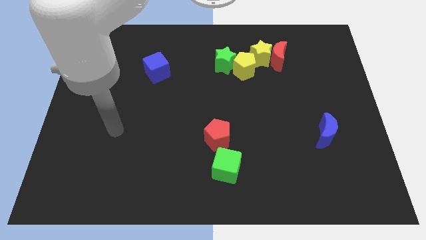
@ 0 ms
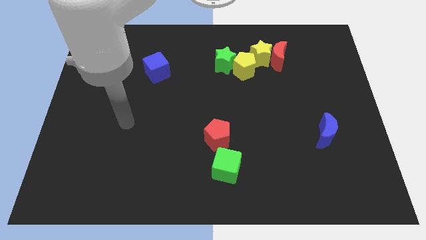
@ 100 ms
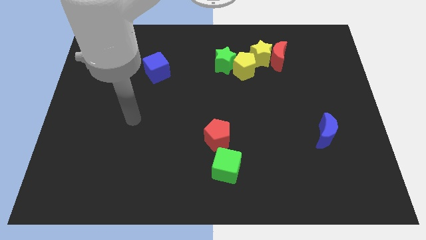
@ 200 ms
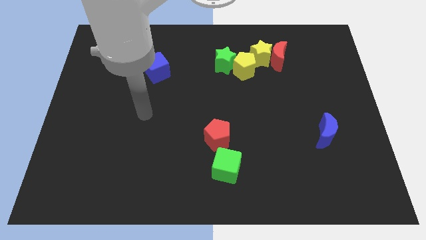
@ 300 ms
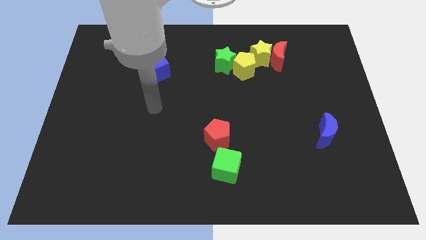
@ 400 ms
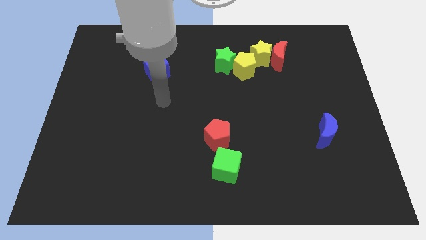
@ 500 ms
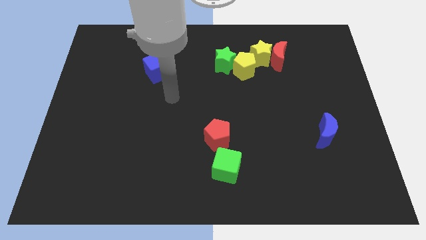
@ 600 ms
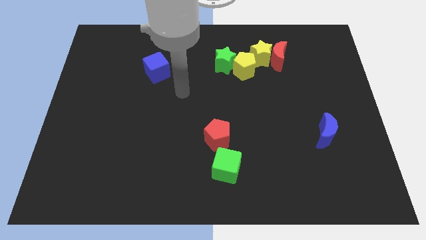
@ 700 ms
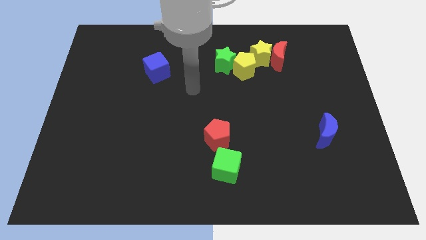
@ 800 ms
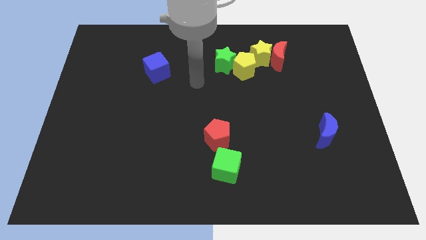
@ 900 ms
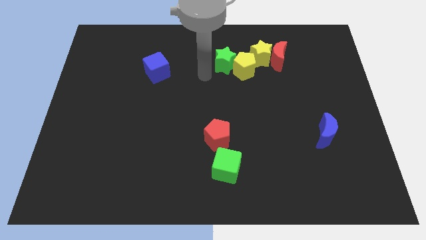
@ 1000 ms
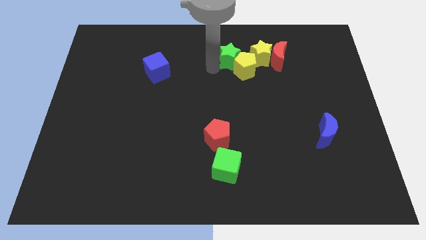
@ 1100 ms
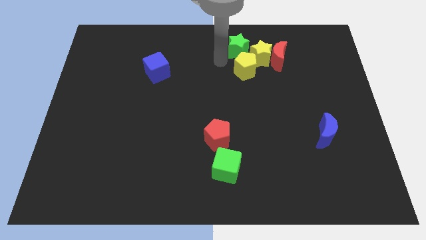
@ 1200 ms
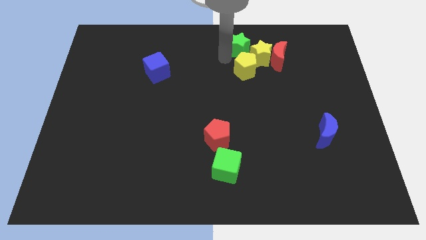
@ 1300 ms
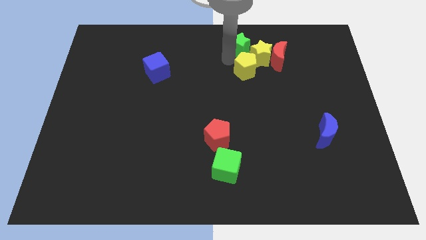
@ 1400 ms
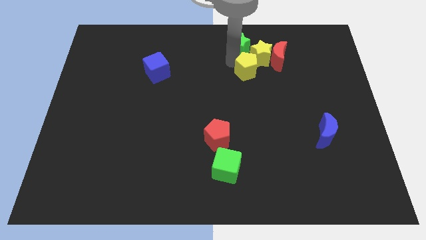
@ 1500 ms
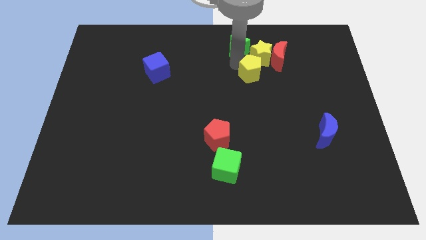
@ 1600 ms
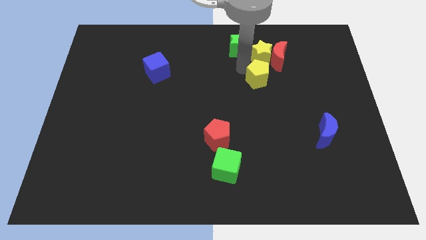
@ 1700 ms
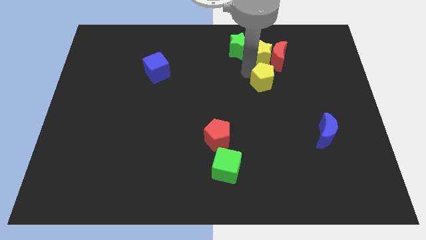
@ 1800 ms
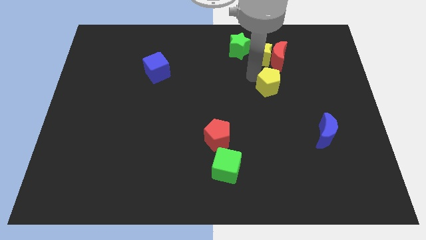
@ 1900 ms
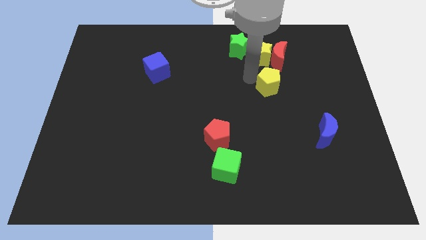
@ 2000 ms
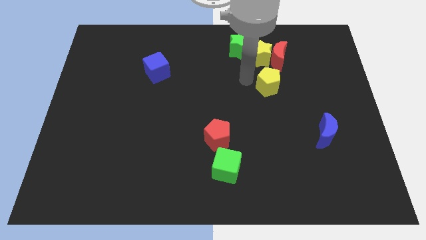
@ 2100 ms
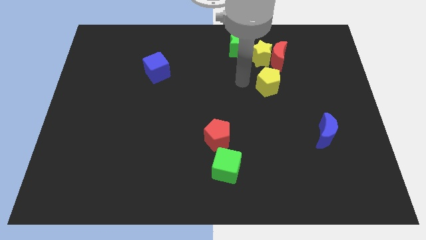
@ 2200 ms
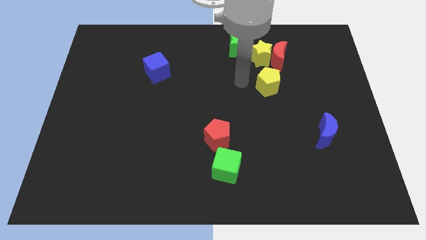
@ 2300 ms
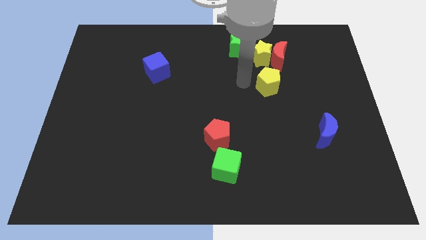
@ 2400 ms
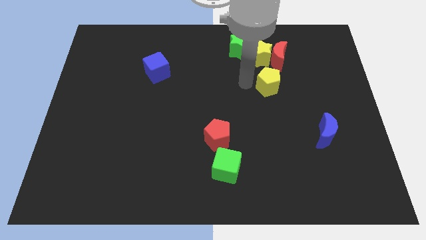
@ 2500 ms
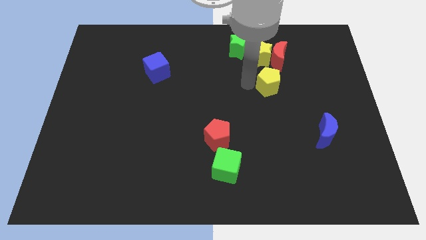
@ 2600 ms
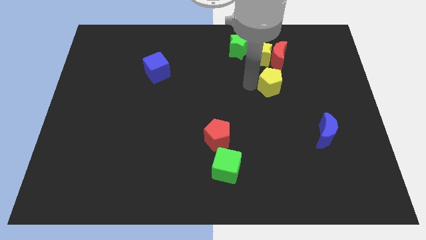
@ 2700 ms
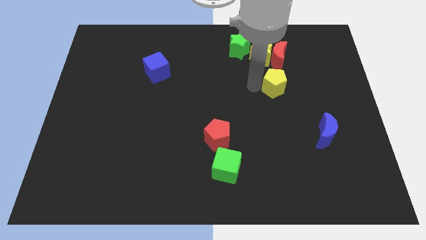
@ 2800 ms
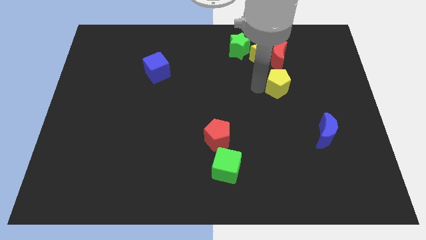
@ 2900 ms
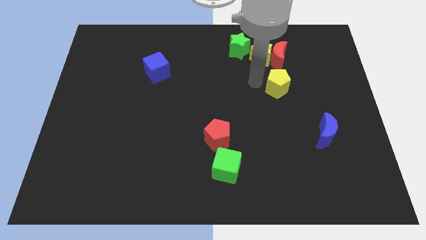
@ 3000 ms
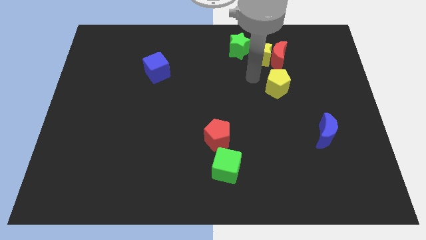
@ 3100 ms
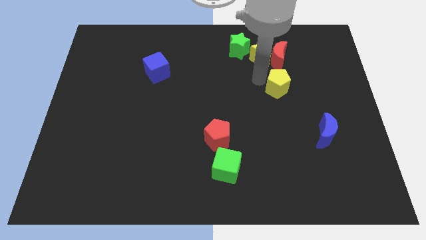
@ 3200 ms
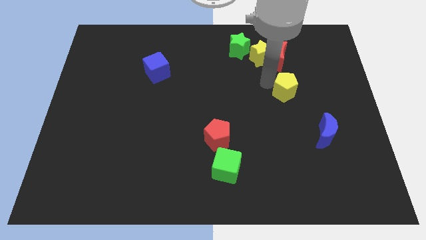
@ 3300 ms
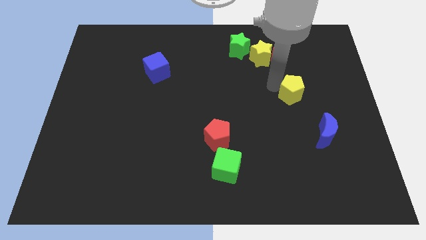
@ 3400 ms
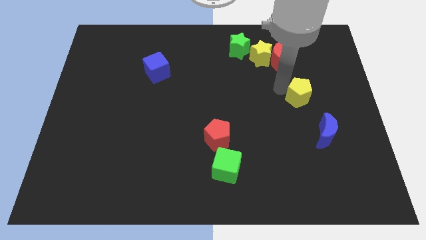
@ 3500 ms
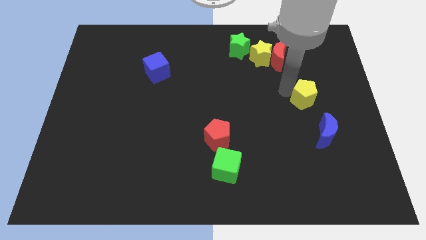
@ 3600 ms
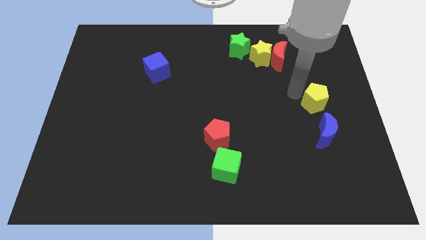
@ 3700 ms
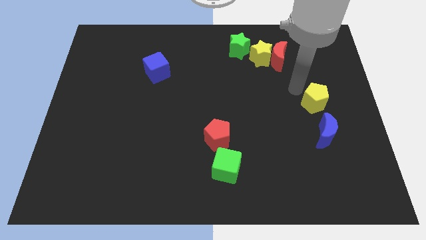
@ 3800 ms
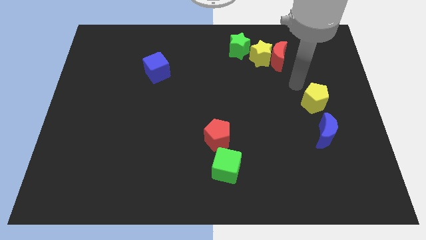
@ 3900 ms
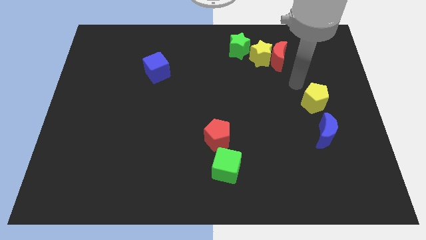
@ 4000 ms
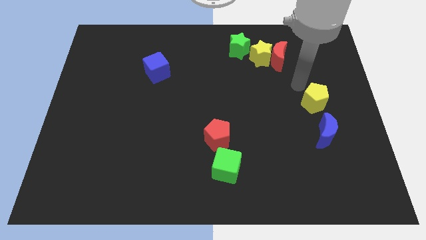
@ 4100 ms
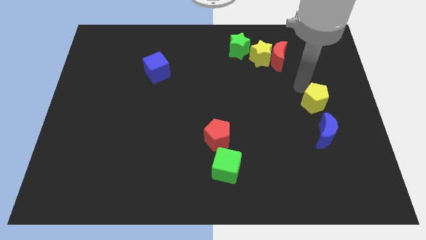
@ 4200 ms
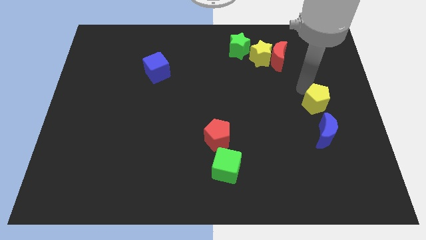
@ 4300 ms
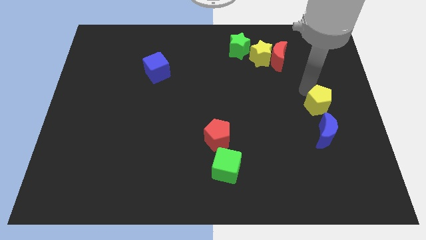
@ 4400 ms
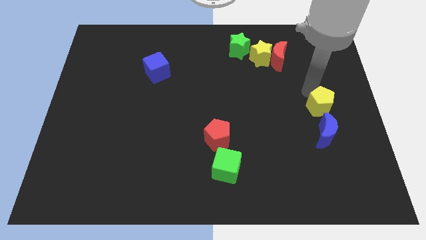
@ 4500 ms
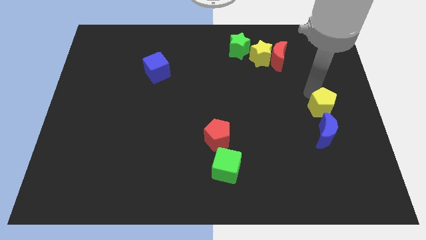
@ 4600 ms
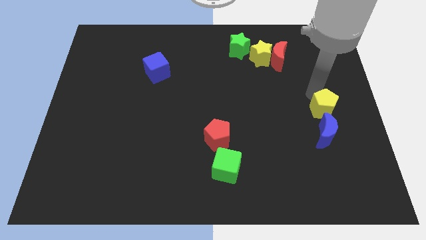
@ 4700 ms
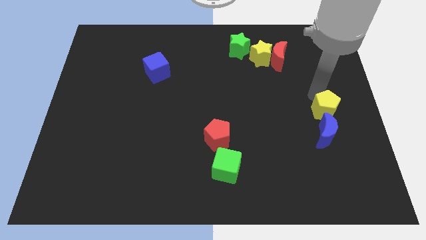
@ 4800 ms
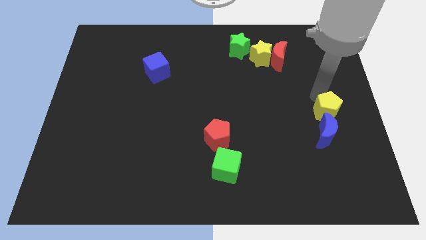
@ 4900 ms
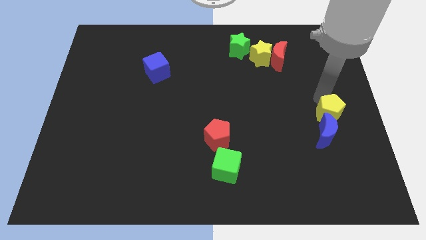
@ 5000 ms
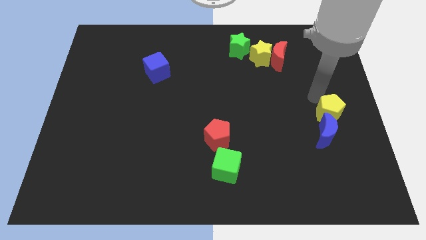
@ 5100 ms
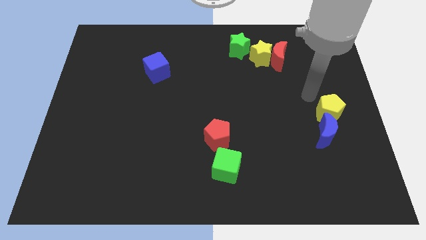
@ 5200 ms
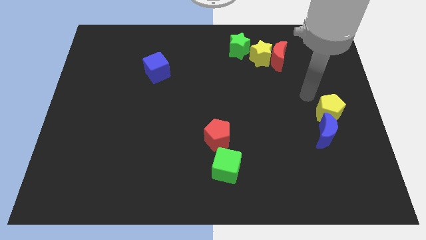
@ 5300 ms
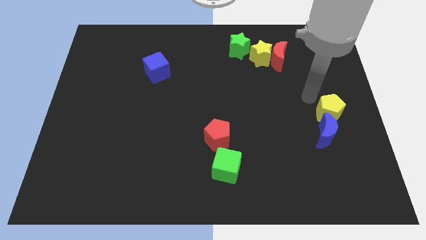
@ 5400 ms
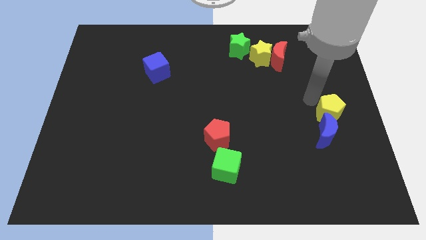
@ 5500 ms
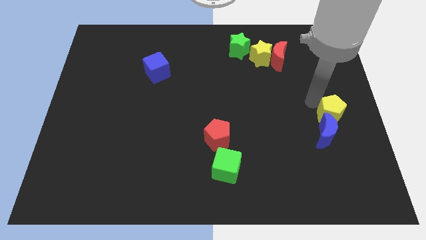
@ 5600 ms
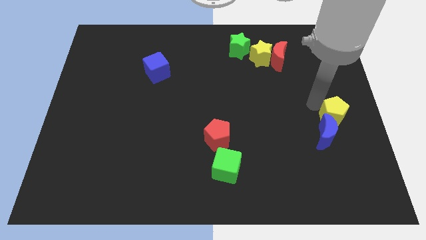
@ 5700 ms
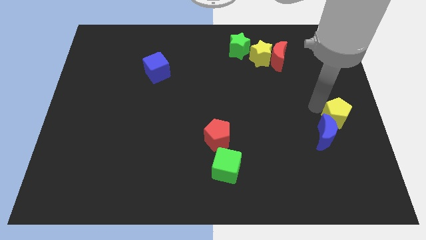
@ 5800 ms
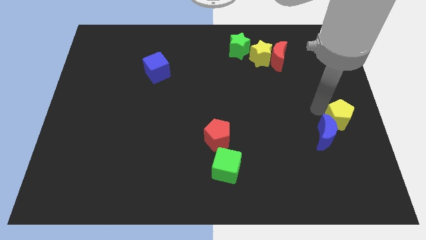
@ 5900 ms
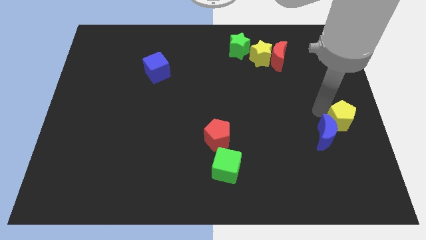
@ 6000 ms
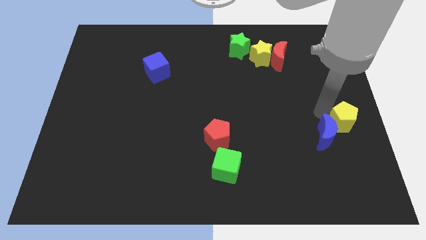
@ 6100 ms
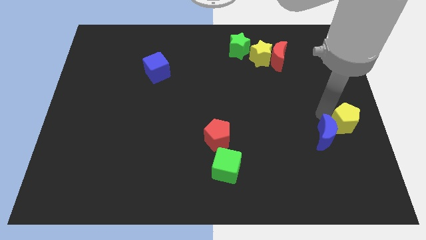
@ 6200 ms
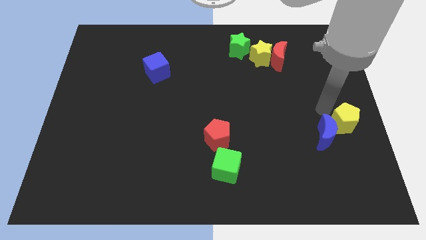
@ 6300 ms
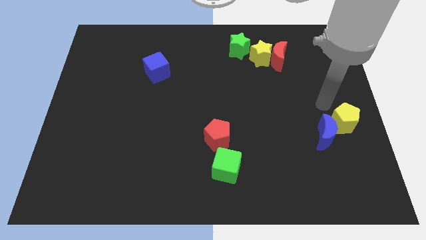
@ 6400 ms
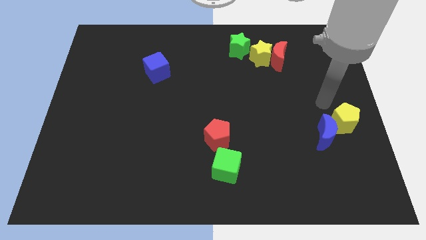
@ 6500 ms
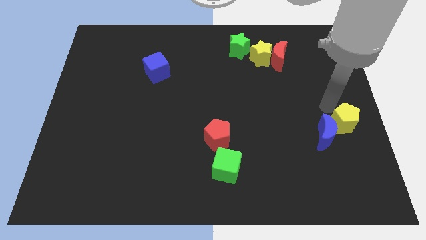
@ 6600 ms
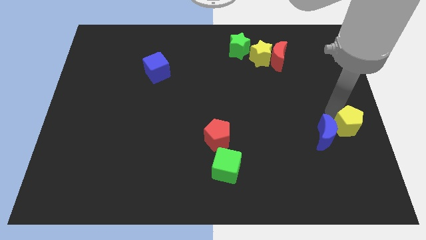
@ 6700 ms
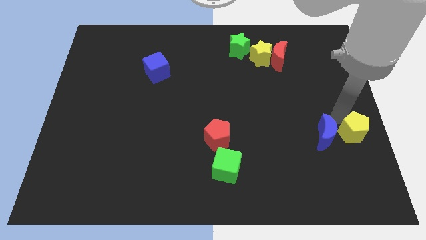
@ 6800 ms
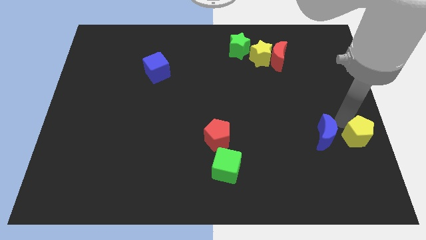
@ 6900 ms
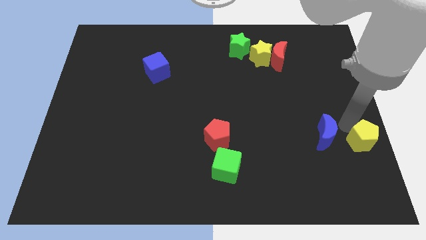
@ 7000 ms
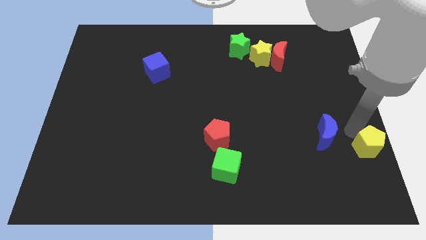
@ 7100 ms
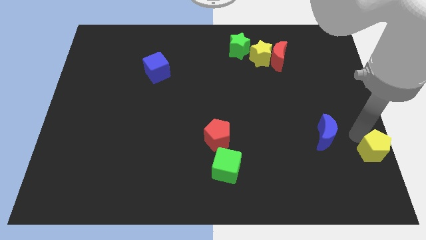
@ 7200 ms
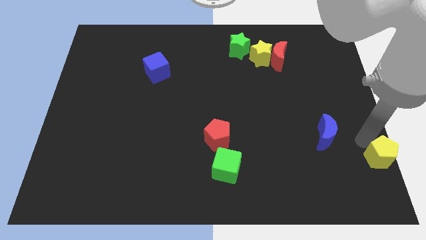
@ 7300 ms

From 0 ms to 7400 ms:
put the yellow pentagon to the bottom right corner
